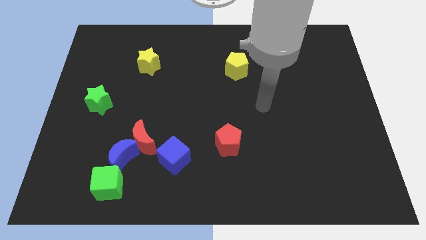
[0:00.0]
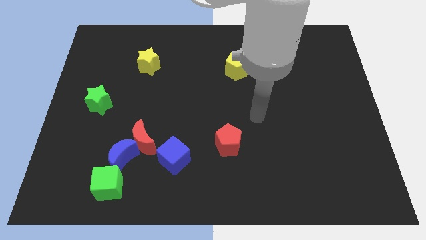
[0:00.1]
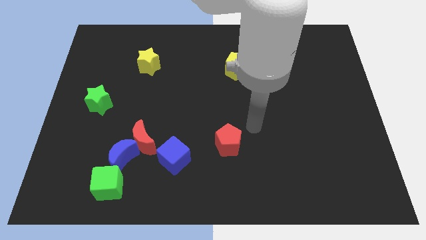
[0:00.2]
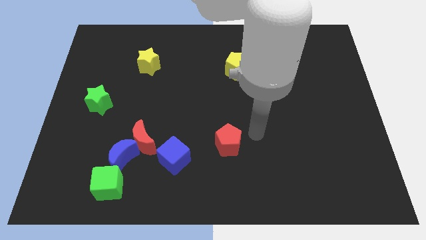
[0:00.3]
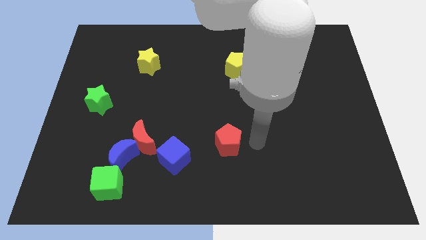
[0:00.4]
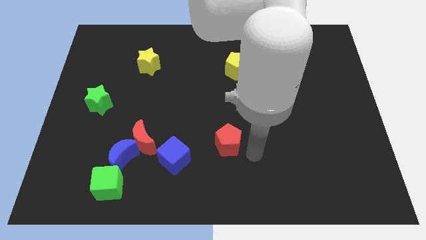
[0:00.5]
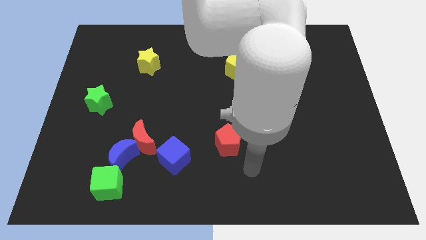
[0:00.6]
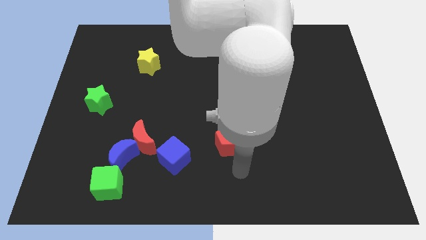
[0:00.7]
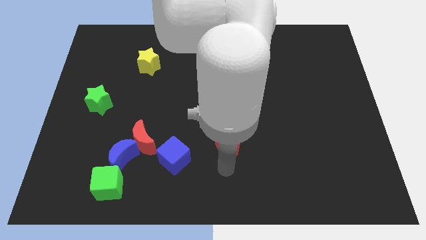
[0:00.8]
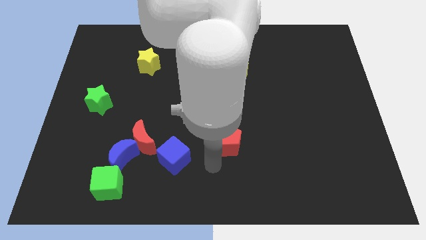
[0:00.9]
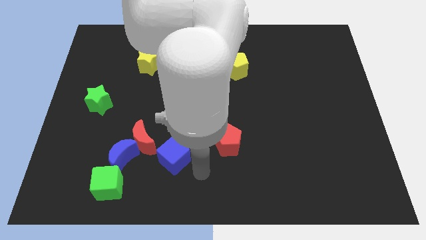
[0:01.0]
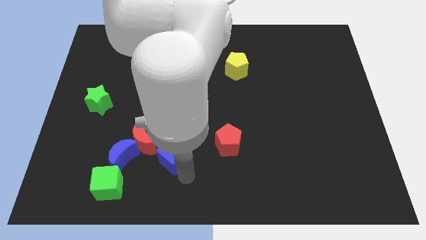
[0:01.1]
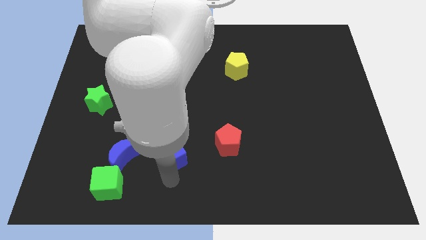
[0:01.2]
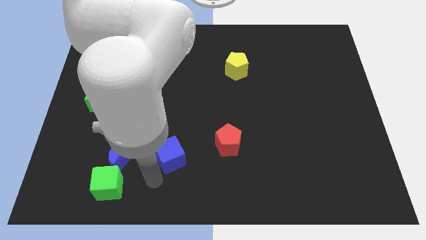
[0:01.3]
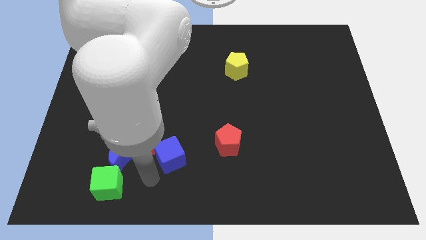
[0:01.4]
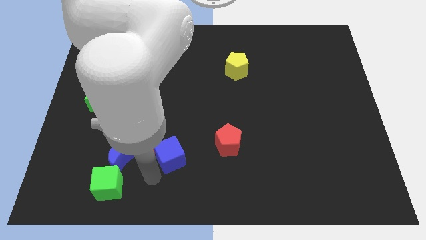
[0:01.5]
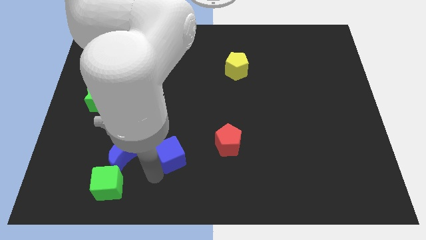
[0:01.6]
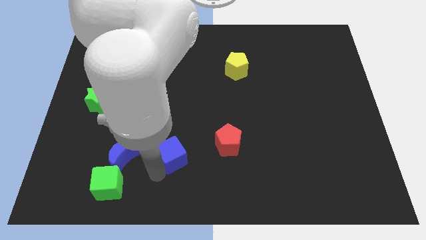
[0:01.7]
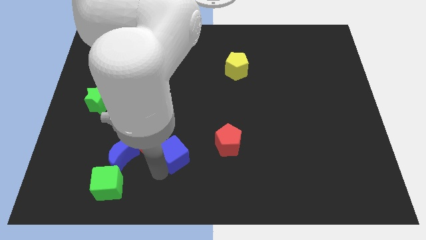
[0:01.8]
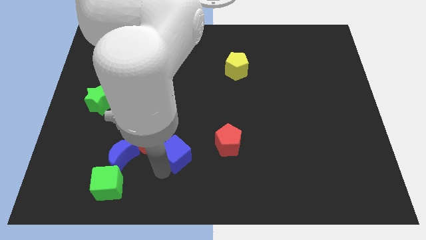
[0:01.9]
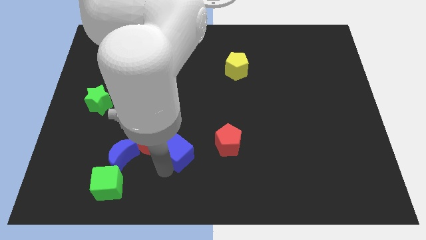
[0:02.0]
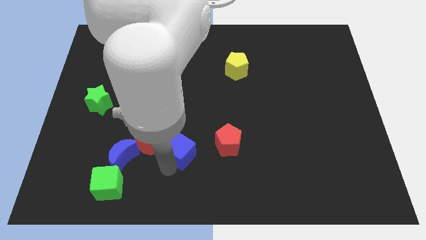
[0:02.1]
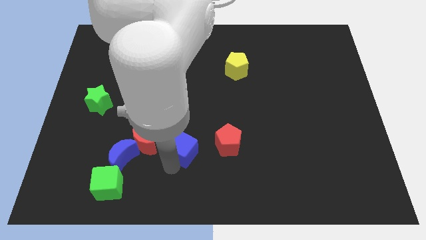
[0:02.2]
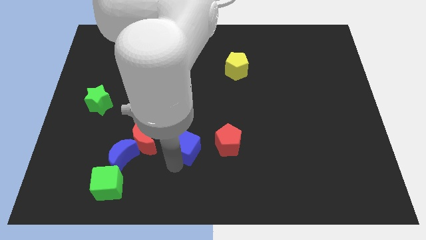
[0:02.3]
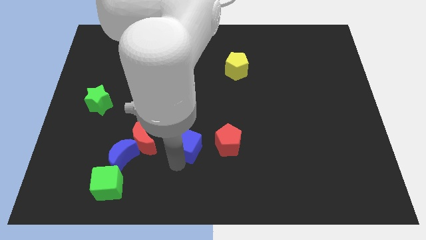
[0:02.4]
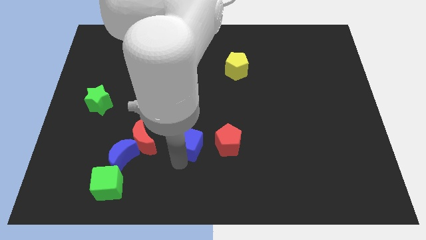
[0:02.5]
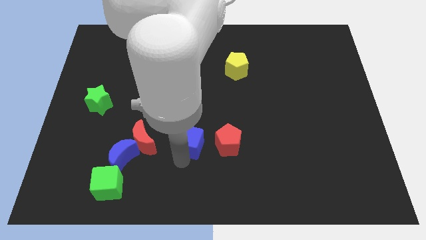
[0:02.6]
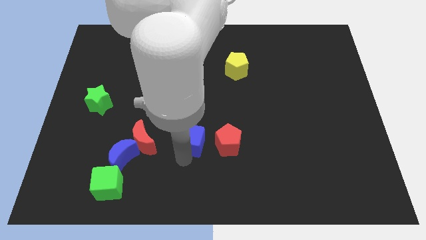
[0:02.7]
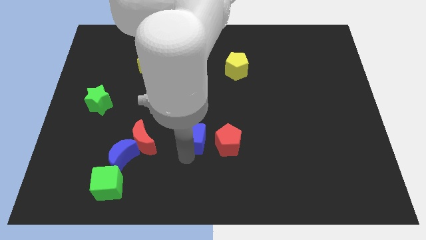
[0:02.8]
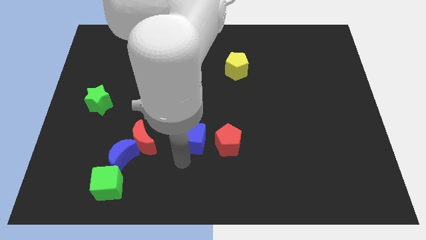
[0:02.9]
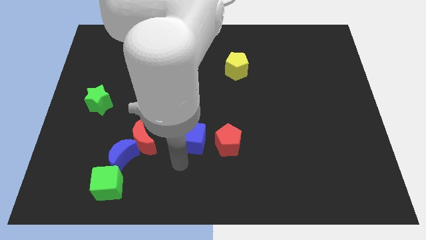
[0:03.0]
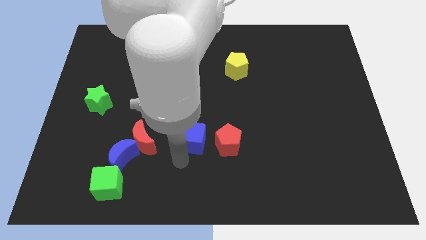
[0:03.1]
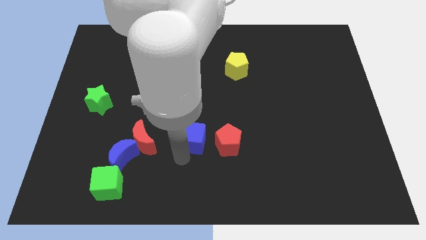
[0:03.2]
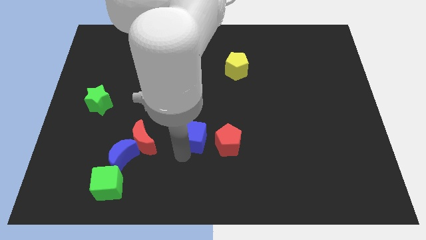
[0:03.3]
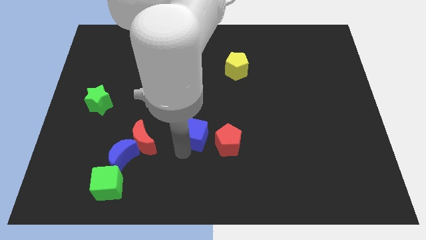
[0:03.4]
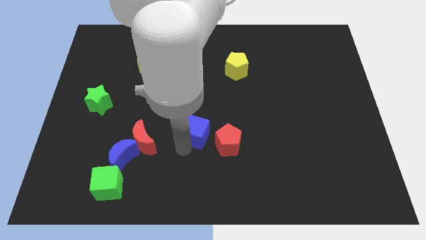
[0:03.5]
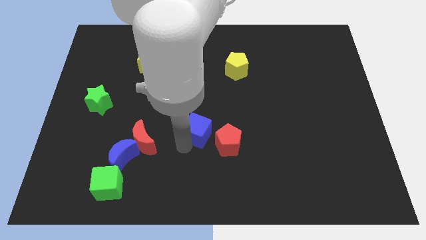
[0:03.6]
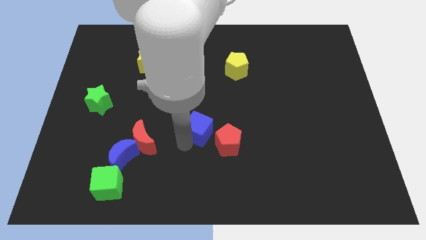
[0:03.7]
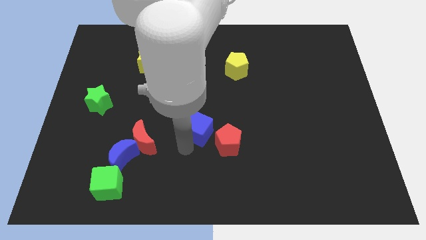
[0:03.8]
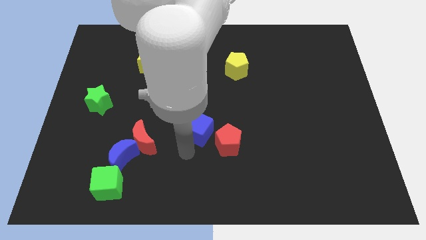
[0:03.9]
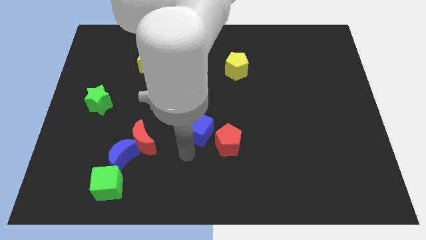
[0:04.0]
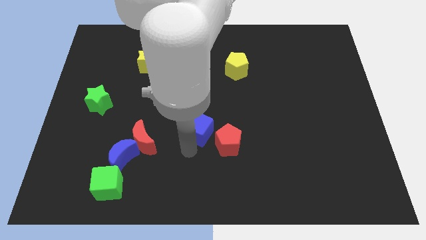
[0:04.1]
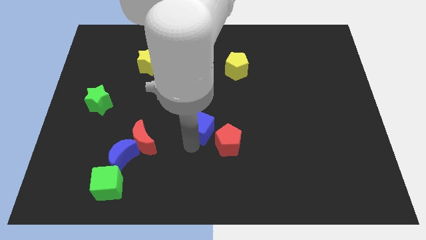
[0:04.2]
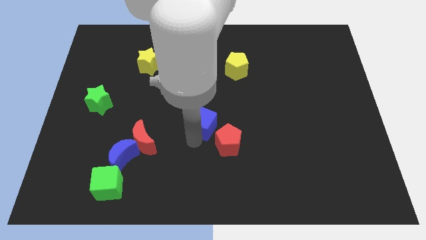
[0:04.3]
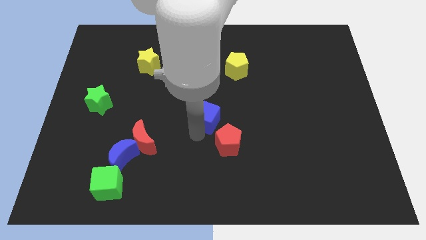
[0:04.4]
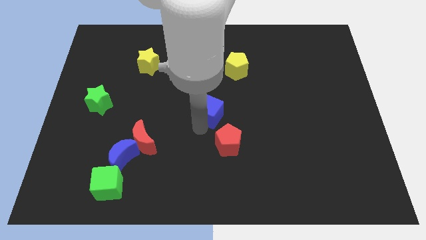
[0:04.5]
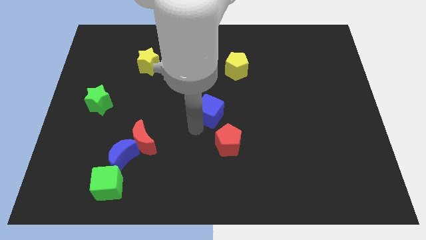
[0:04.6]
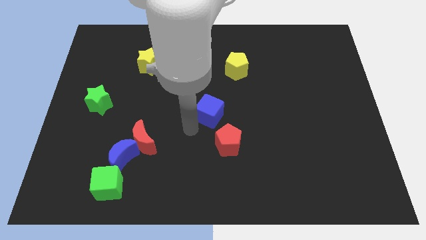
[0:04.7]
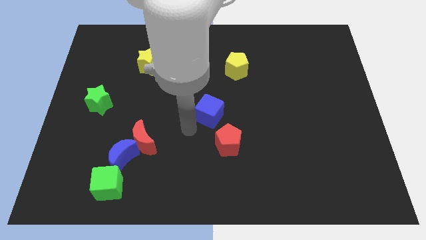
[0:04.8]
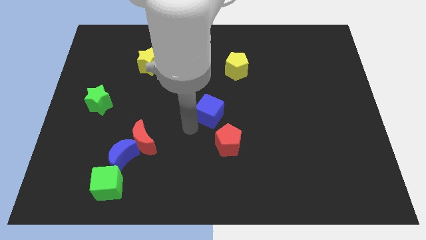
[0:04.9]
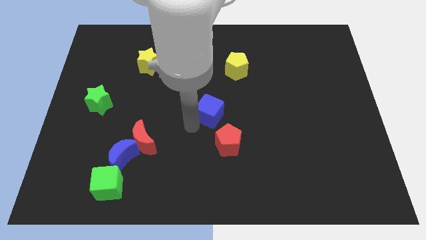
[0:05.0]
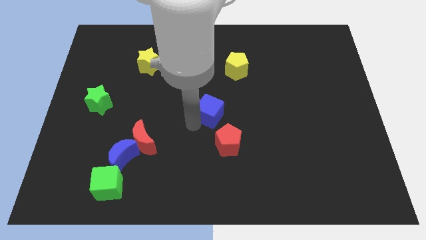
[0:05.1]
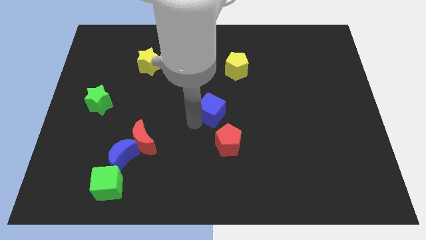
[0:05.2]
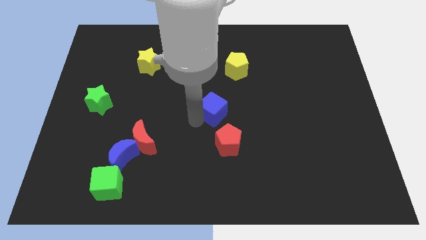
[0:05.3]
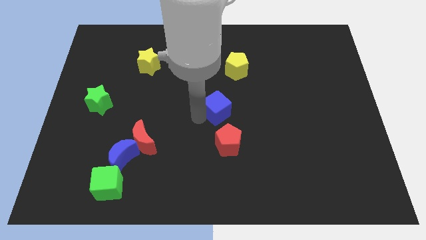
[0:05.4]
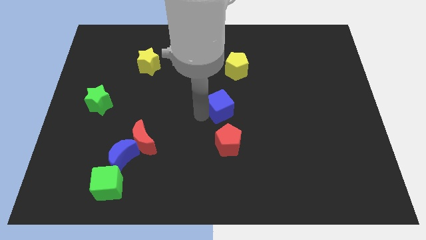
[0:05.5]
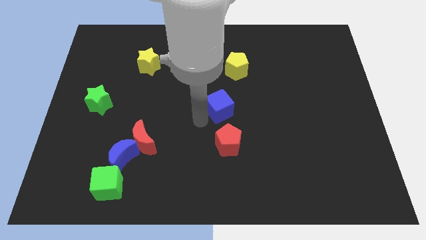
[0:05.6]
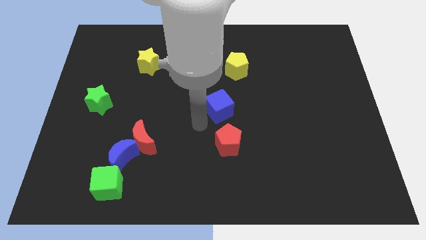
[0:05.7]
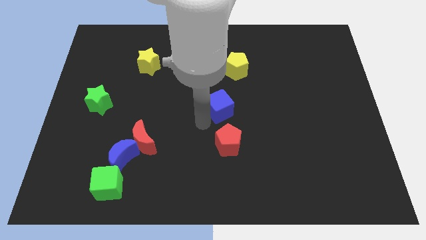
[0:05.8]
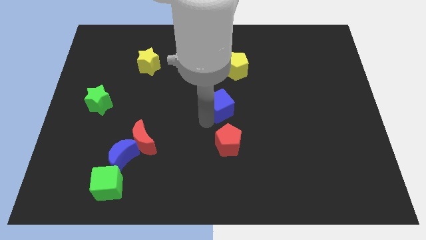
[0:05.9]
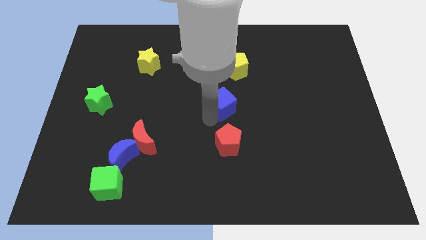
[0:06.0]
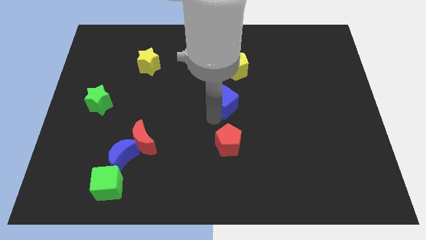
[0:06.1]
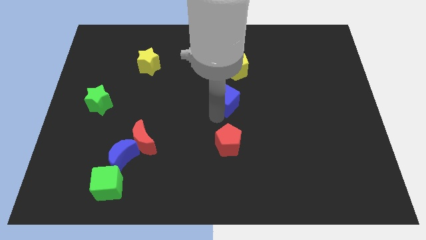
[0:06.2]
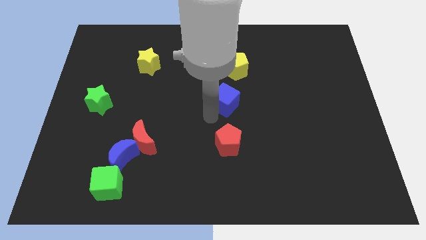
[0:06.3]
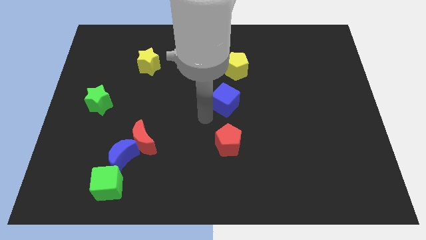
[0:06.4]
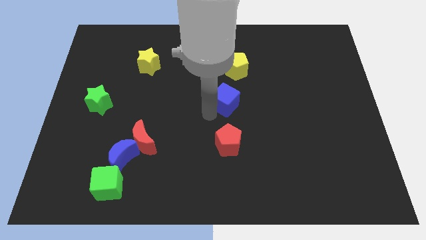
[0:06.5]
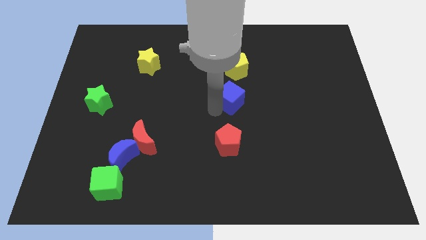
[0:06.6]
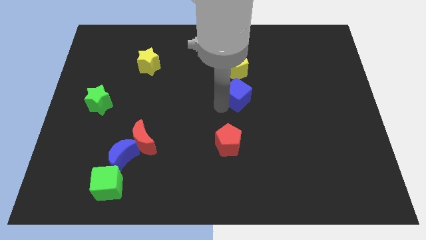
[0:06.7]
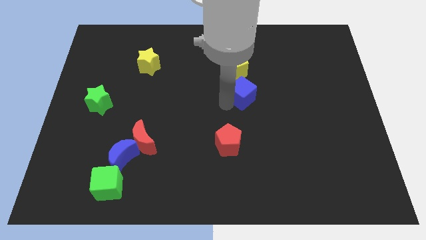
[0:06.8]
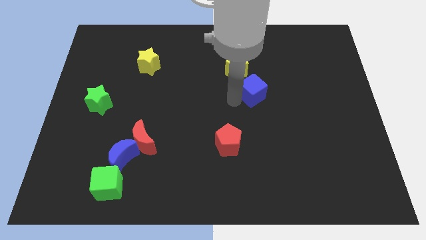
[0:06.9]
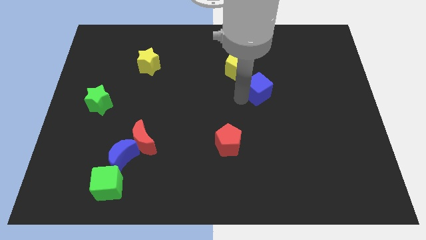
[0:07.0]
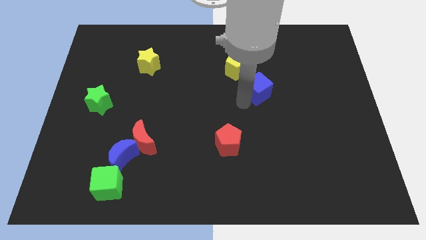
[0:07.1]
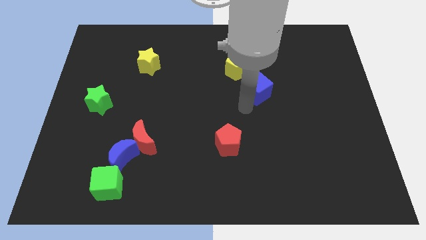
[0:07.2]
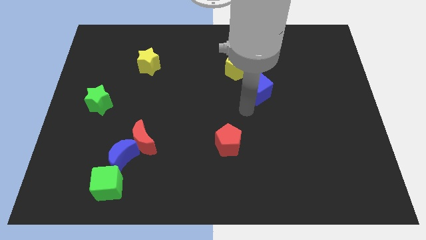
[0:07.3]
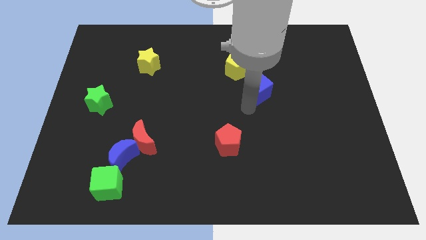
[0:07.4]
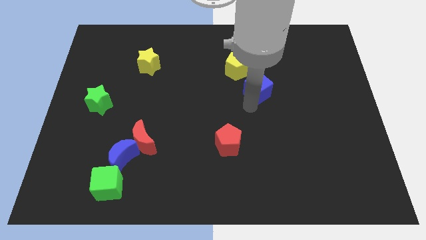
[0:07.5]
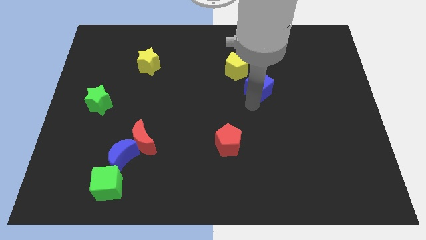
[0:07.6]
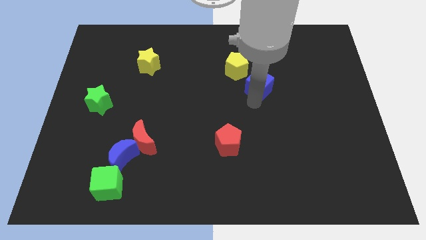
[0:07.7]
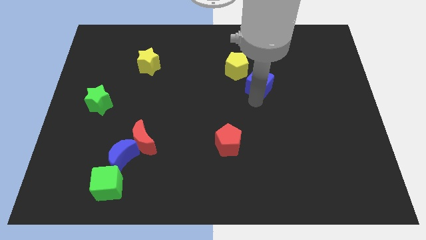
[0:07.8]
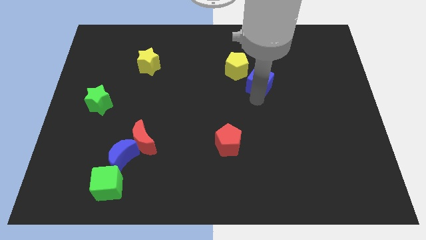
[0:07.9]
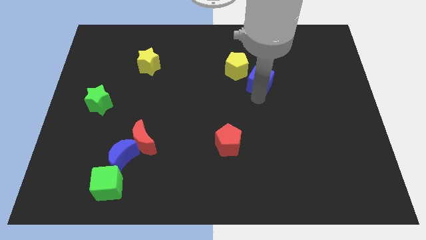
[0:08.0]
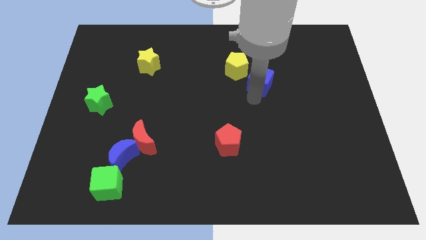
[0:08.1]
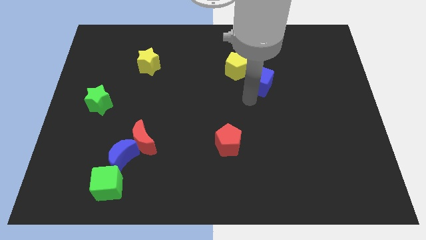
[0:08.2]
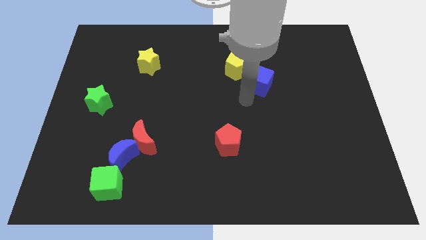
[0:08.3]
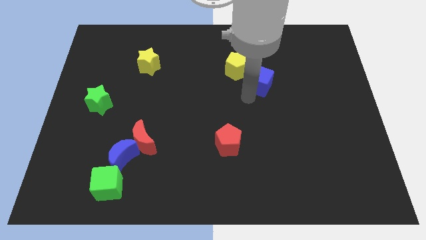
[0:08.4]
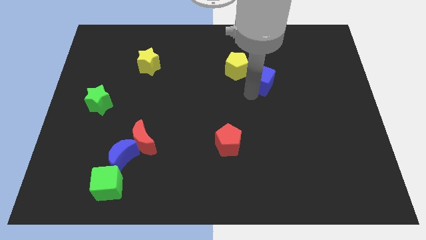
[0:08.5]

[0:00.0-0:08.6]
put the blue cube just right of the yellow pentagon
